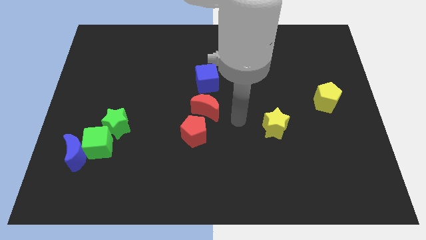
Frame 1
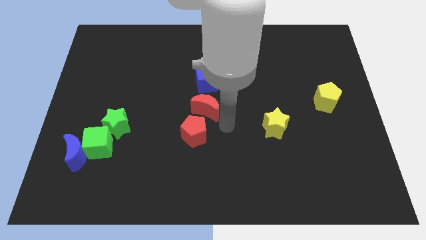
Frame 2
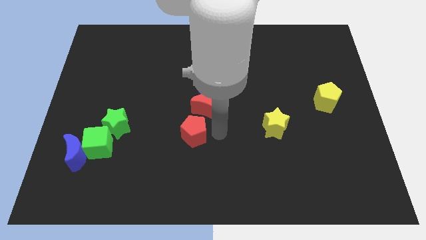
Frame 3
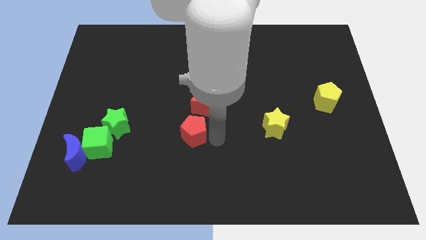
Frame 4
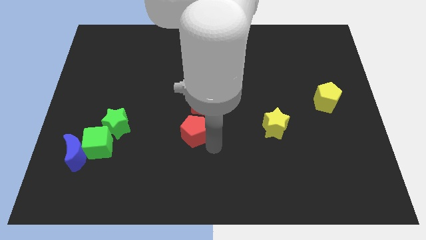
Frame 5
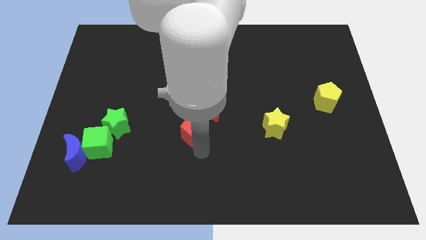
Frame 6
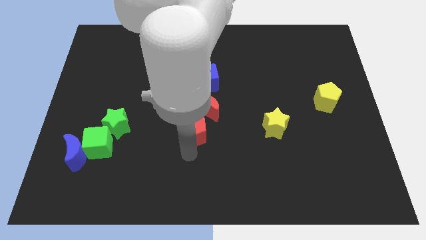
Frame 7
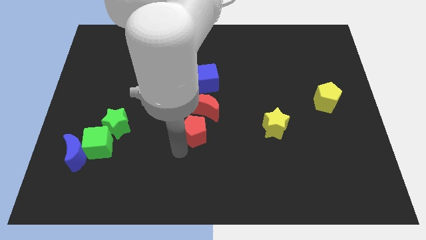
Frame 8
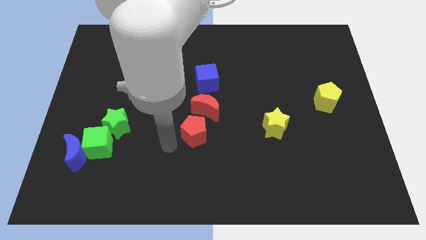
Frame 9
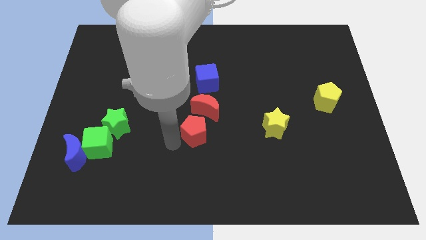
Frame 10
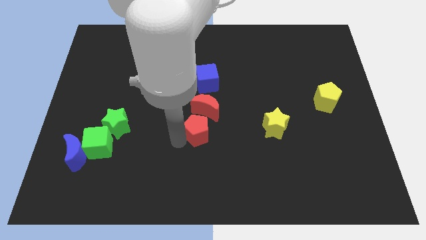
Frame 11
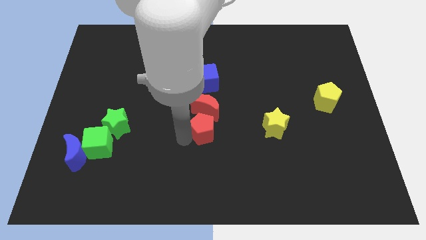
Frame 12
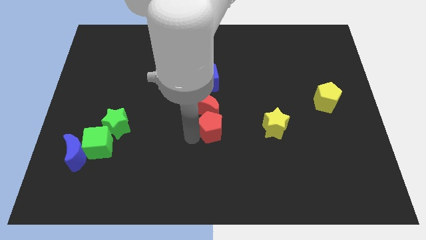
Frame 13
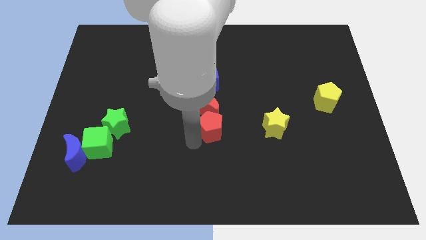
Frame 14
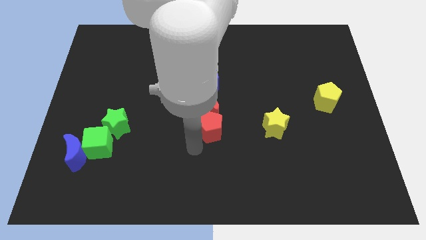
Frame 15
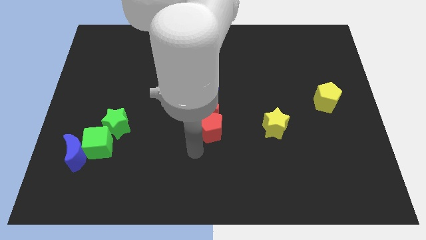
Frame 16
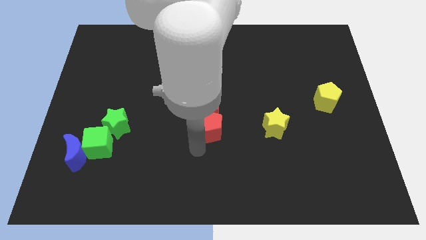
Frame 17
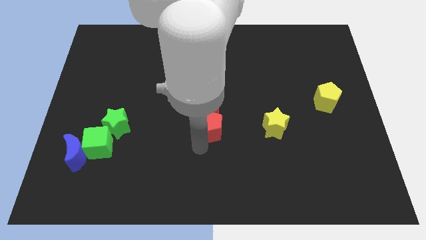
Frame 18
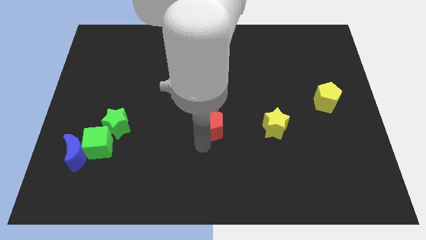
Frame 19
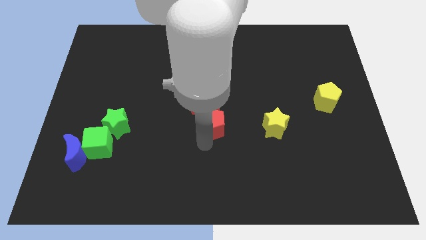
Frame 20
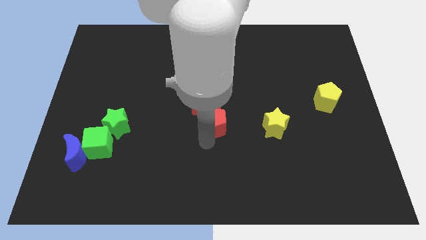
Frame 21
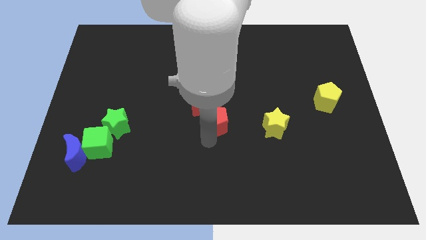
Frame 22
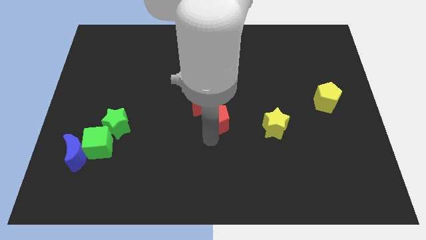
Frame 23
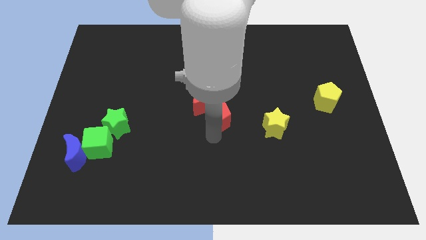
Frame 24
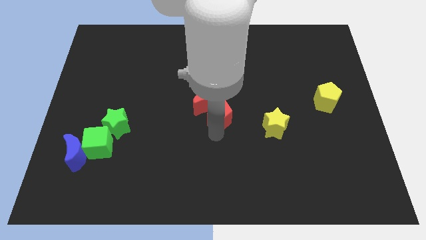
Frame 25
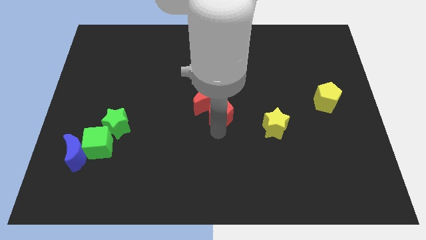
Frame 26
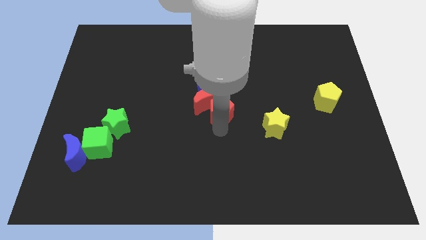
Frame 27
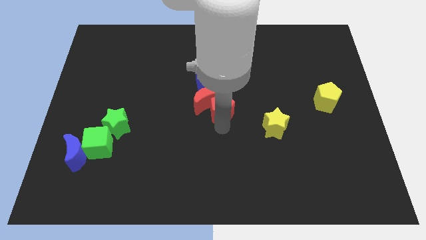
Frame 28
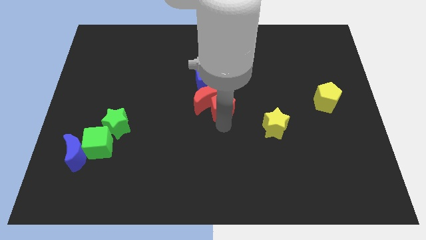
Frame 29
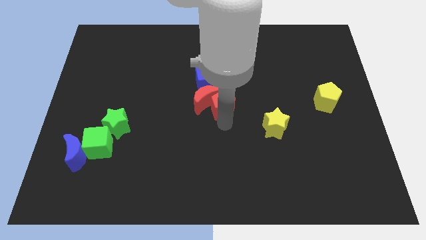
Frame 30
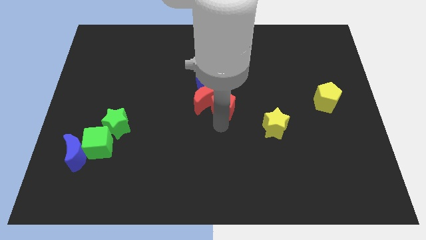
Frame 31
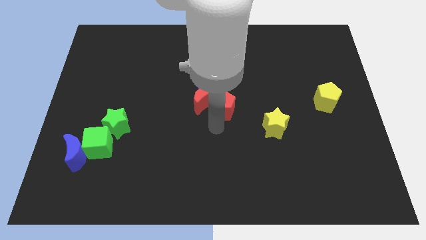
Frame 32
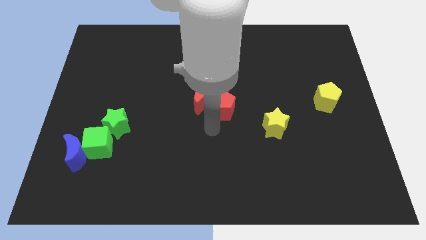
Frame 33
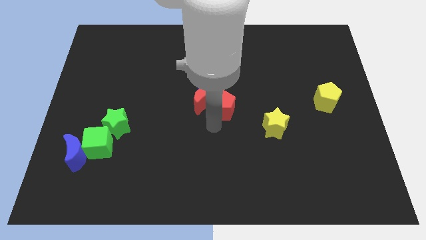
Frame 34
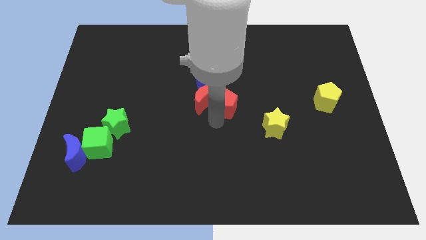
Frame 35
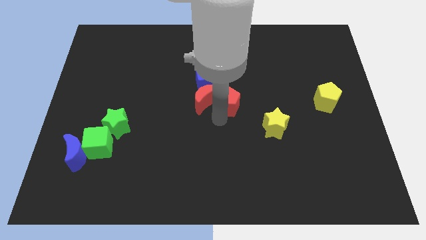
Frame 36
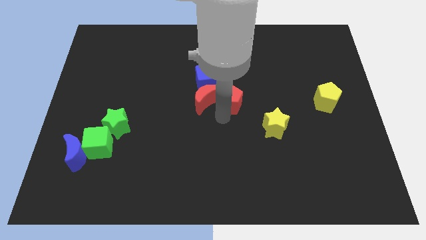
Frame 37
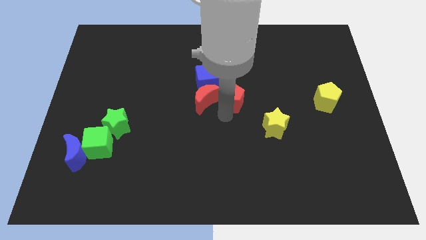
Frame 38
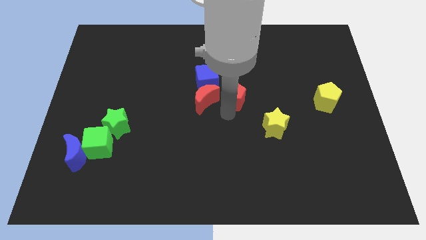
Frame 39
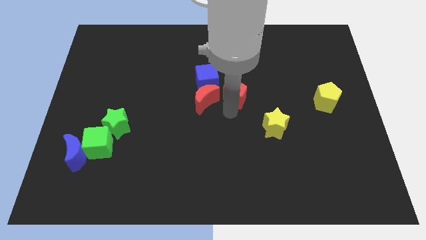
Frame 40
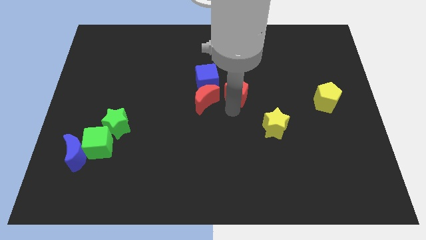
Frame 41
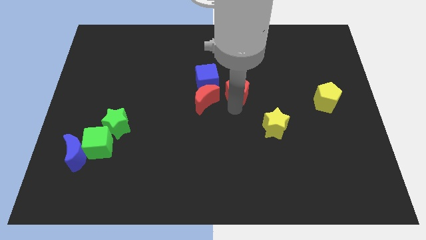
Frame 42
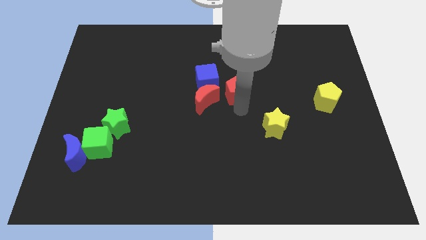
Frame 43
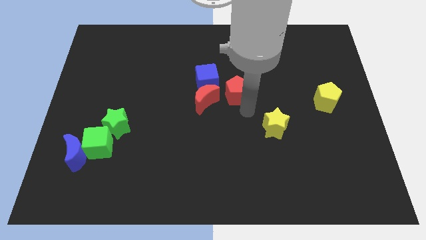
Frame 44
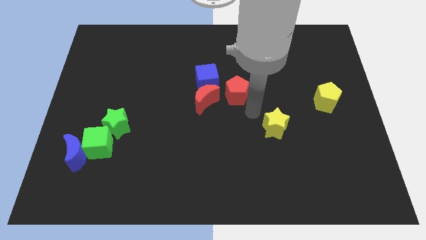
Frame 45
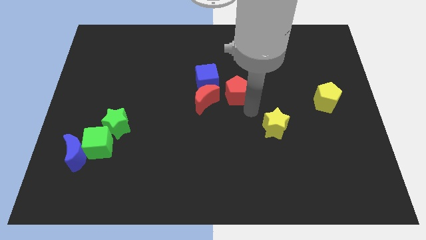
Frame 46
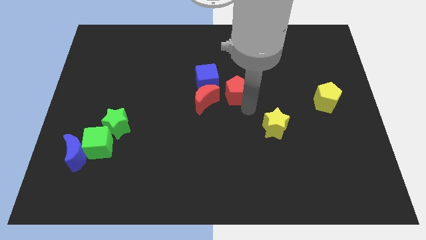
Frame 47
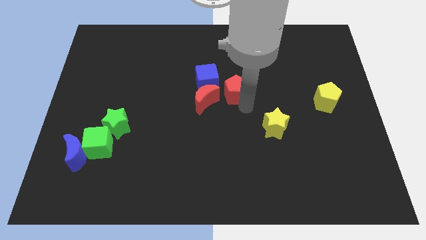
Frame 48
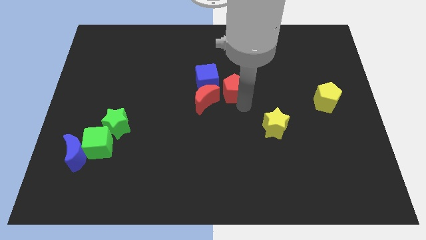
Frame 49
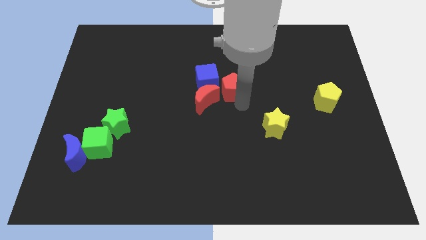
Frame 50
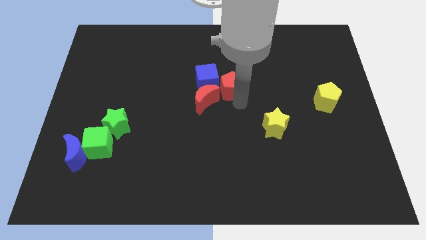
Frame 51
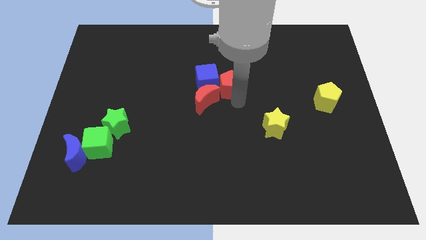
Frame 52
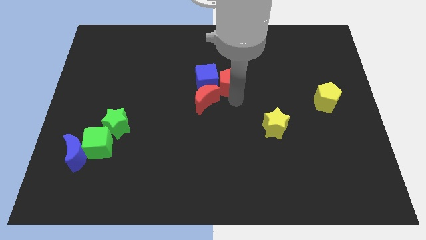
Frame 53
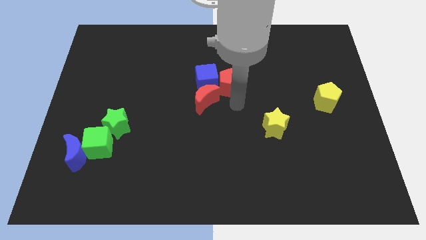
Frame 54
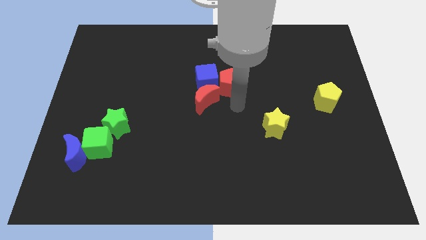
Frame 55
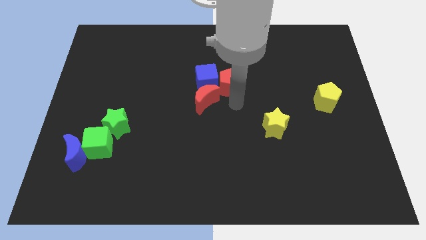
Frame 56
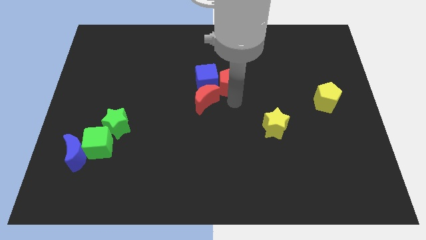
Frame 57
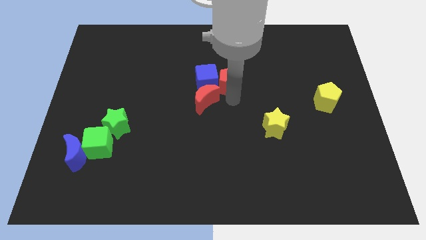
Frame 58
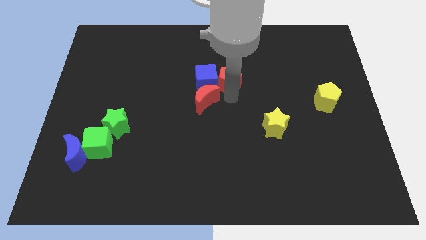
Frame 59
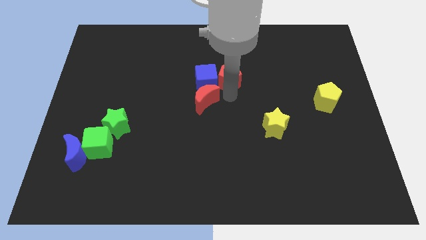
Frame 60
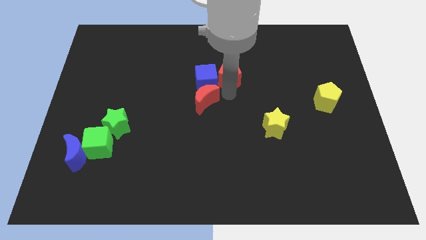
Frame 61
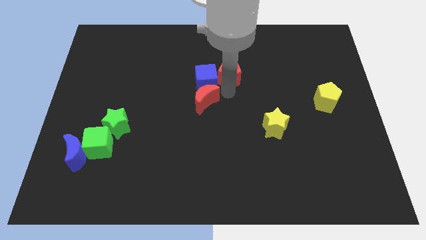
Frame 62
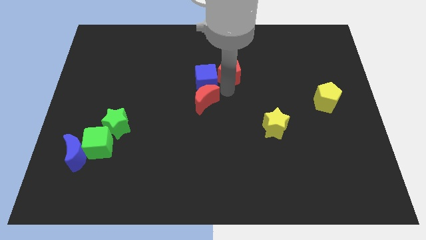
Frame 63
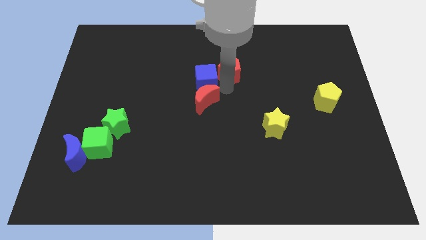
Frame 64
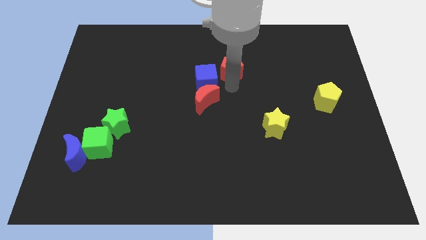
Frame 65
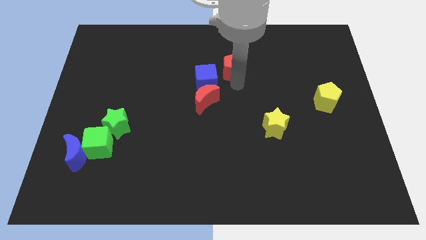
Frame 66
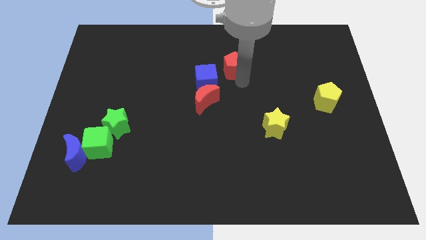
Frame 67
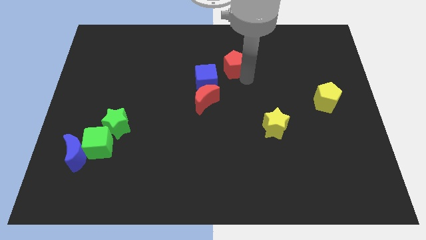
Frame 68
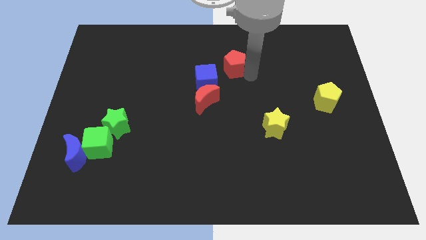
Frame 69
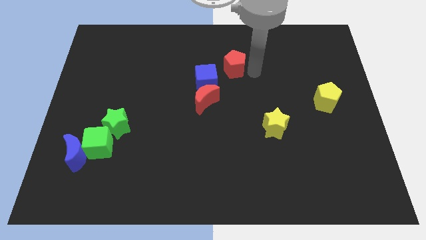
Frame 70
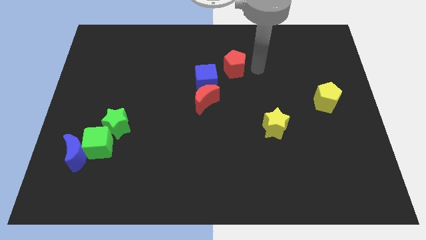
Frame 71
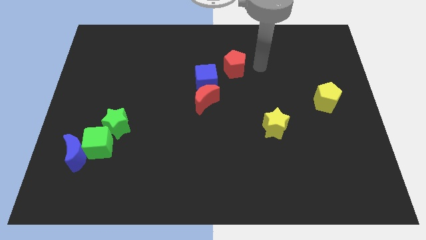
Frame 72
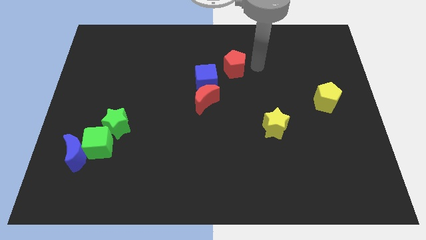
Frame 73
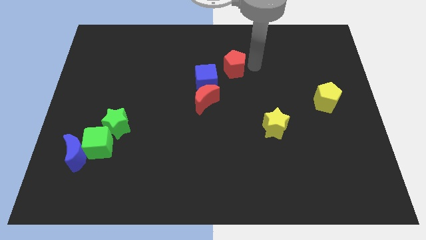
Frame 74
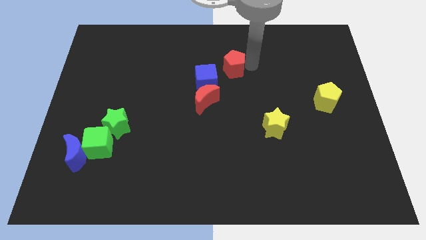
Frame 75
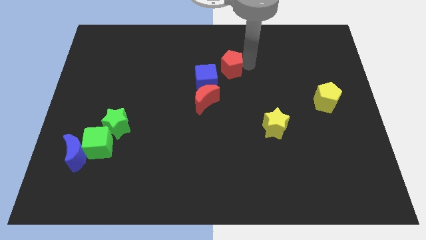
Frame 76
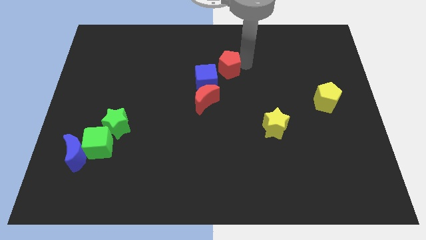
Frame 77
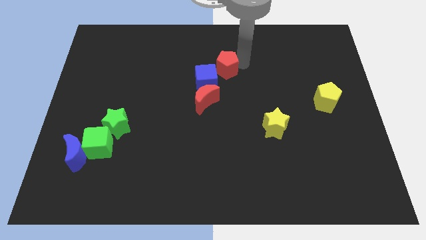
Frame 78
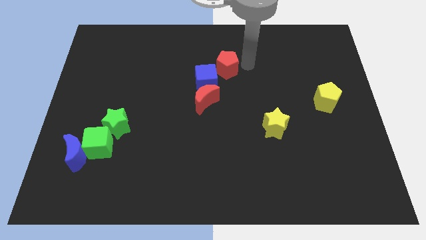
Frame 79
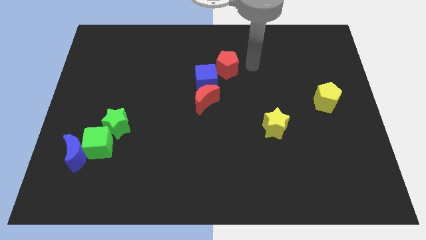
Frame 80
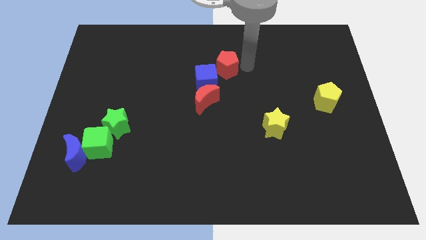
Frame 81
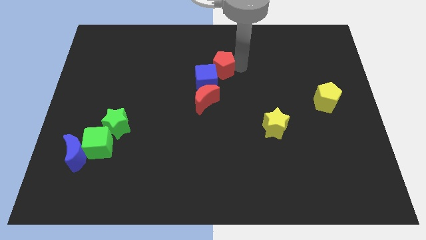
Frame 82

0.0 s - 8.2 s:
move the red pentagon above the red moon
